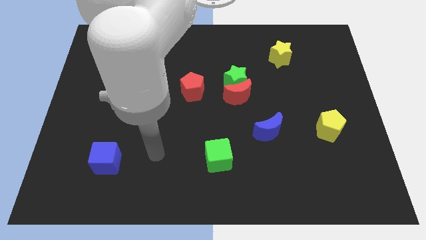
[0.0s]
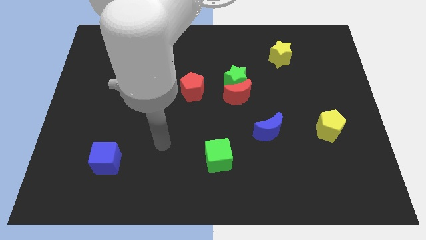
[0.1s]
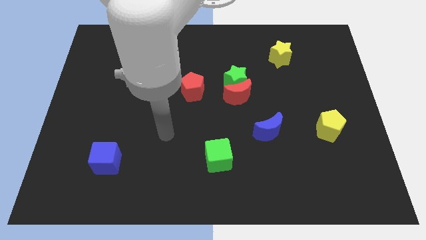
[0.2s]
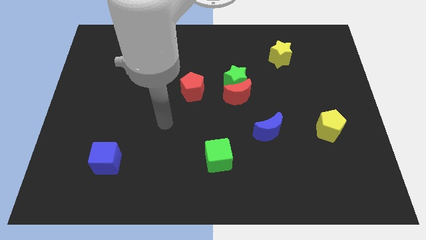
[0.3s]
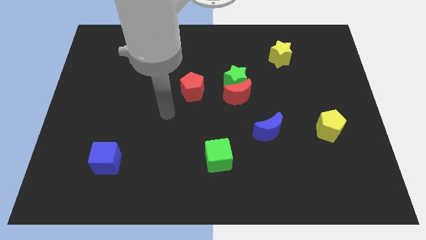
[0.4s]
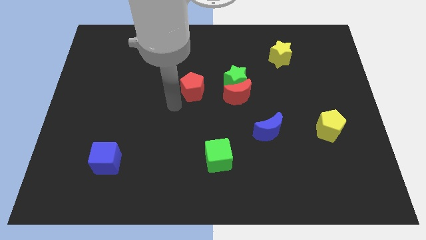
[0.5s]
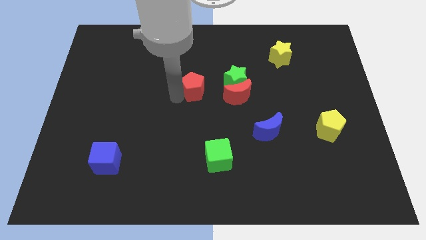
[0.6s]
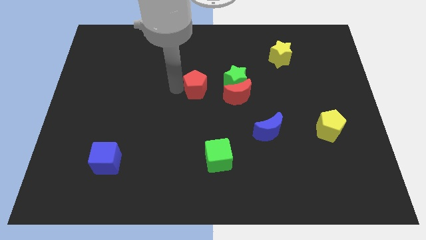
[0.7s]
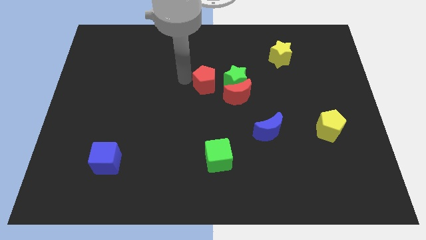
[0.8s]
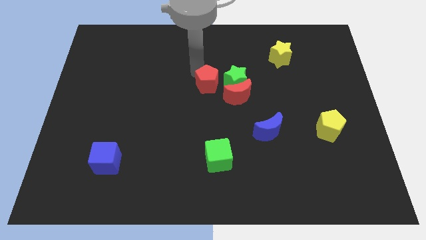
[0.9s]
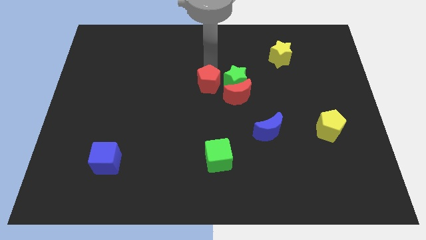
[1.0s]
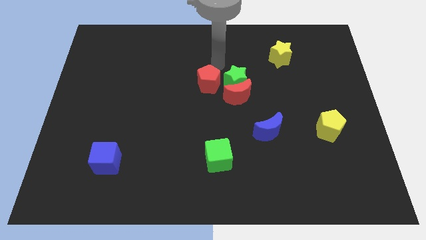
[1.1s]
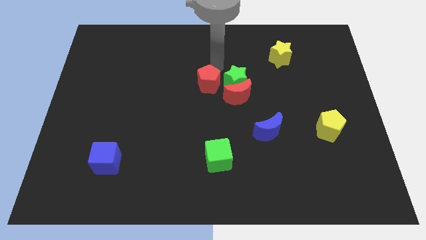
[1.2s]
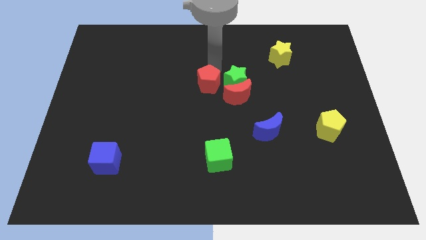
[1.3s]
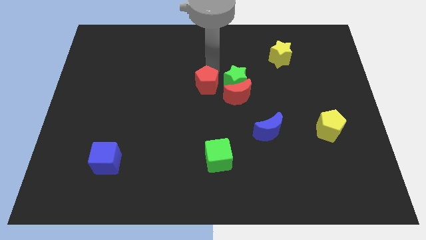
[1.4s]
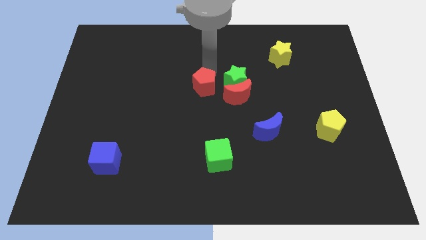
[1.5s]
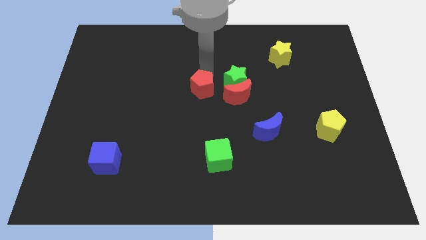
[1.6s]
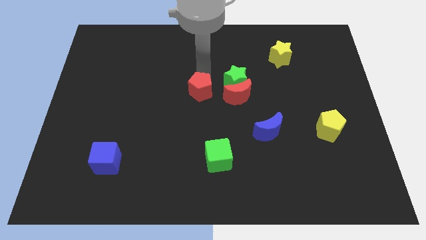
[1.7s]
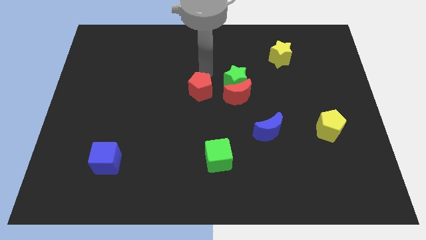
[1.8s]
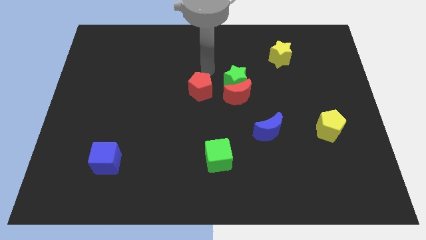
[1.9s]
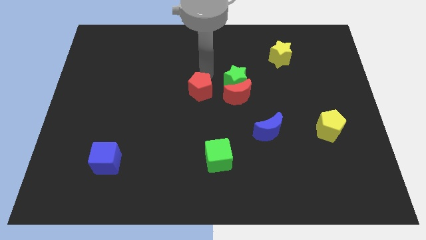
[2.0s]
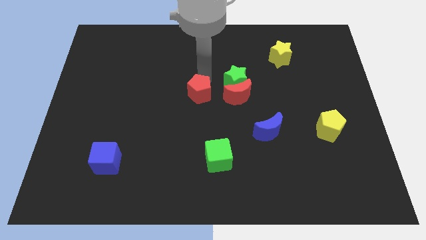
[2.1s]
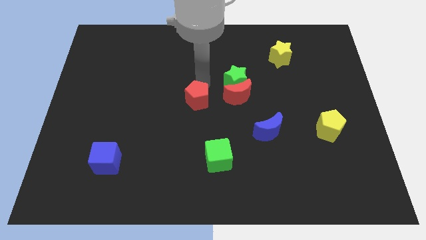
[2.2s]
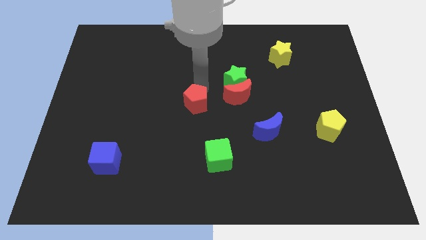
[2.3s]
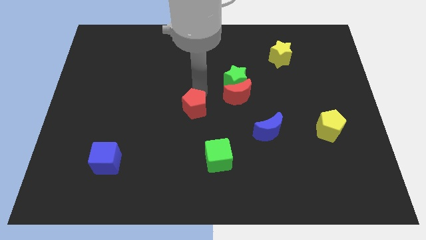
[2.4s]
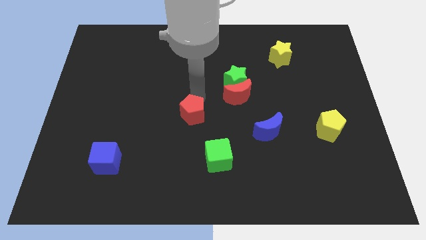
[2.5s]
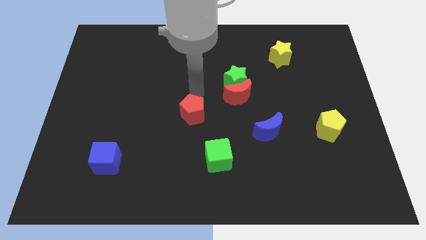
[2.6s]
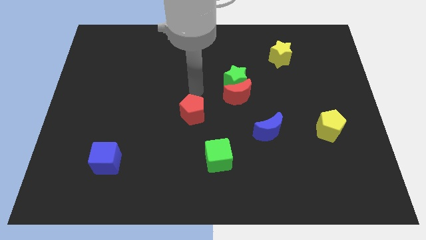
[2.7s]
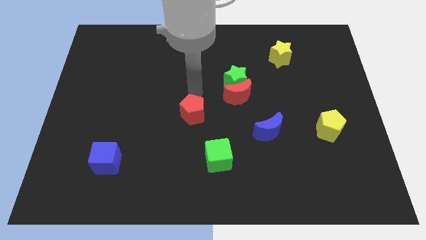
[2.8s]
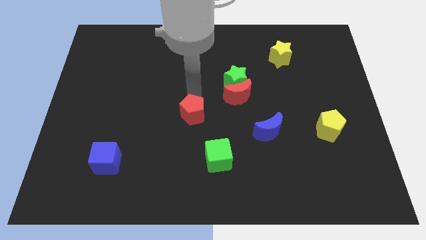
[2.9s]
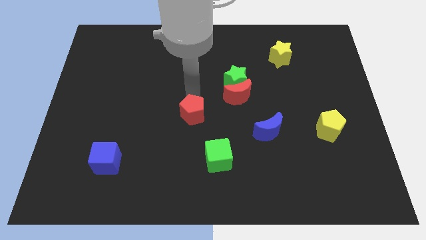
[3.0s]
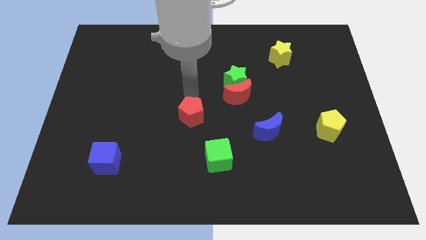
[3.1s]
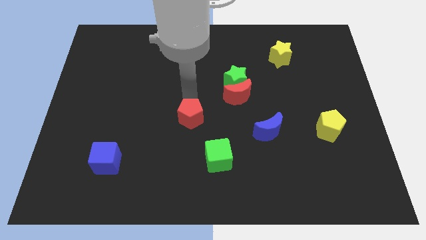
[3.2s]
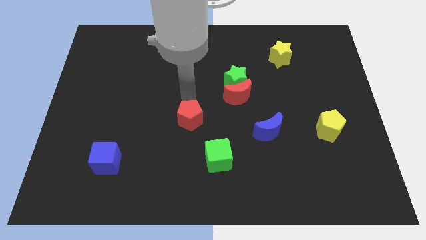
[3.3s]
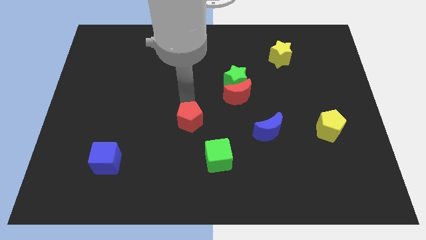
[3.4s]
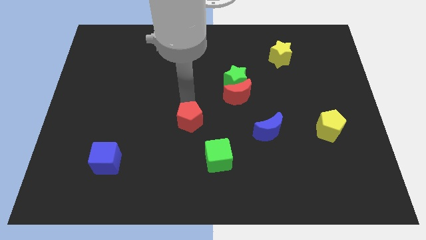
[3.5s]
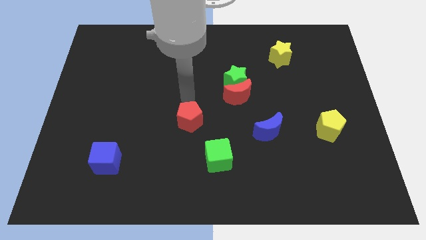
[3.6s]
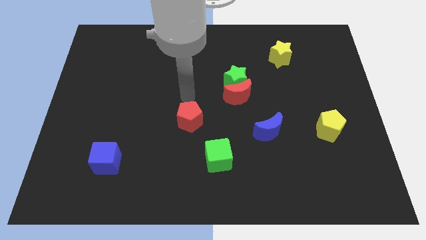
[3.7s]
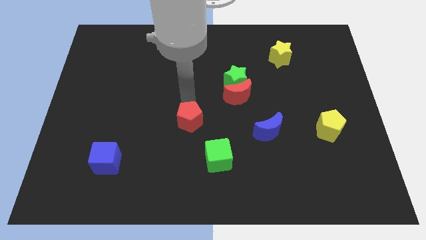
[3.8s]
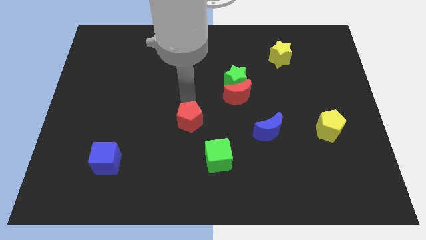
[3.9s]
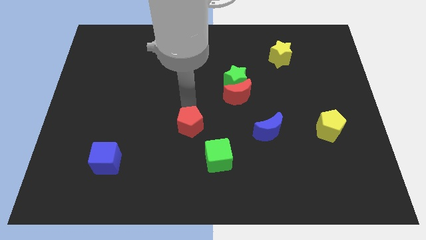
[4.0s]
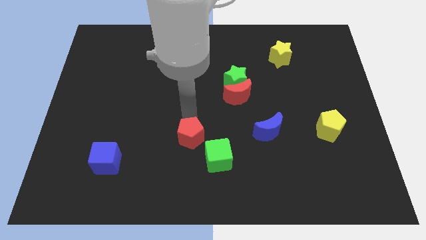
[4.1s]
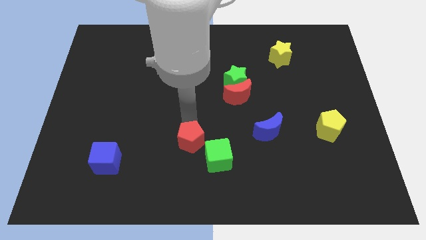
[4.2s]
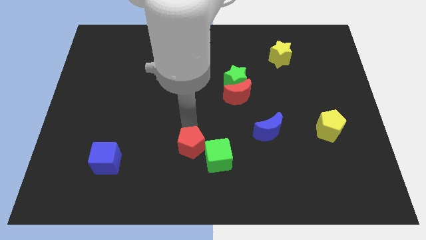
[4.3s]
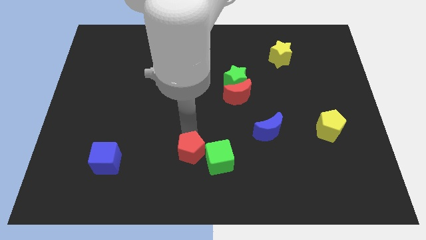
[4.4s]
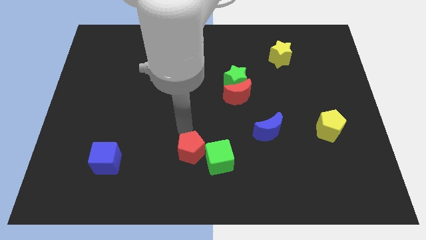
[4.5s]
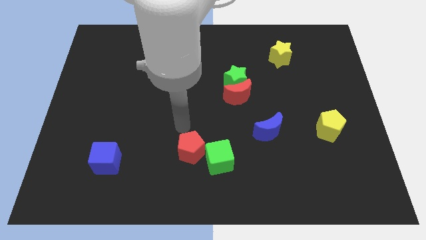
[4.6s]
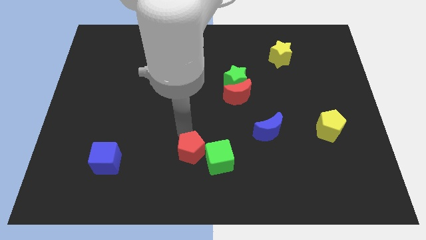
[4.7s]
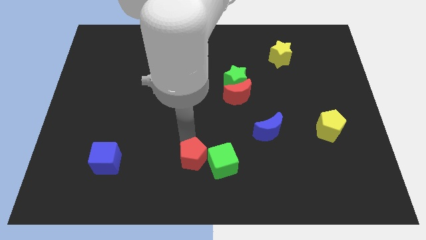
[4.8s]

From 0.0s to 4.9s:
slide the red pentagon to the bottom side

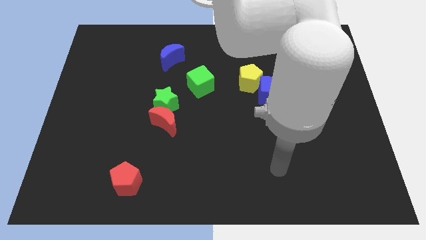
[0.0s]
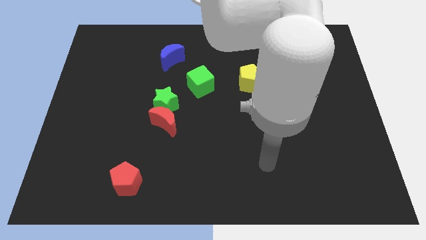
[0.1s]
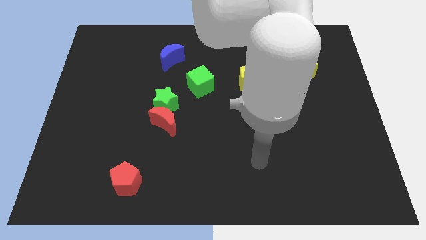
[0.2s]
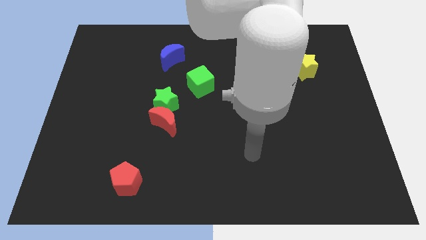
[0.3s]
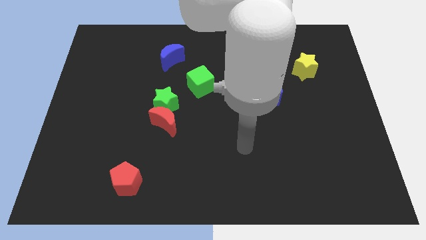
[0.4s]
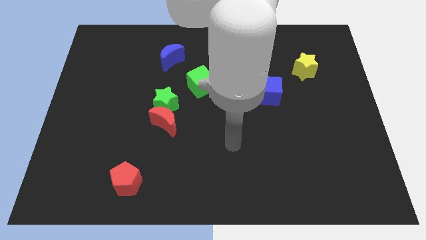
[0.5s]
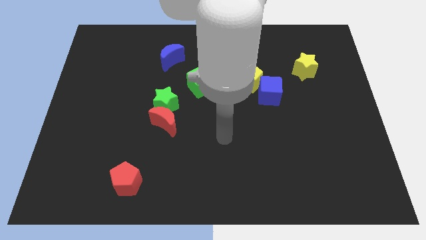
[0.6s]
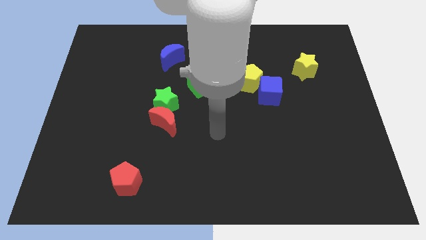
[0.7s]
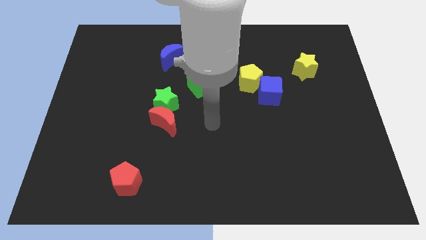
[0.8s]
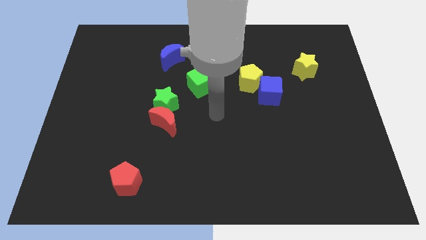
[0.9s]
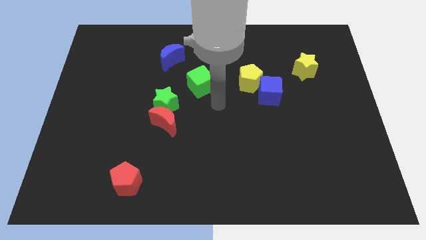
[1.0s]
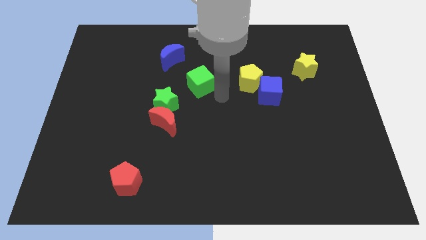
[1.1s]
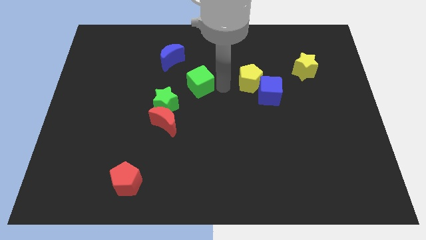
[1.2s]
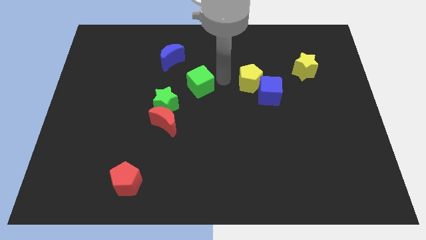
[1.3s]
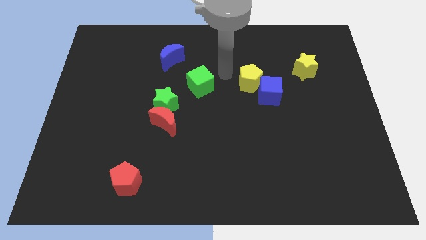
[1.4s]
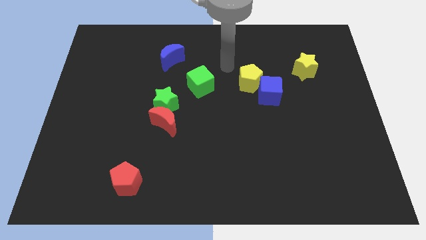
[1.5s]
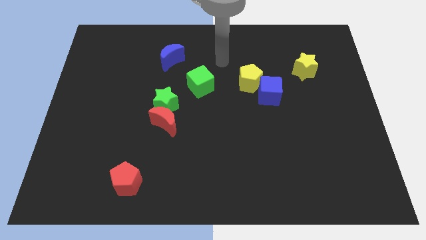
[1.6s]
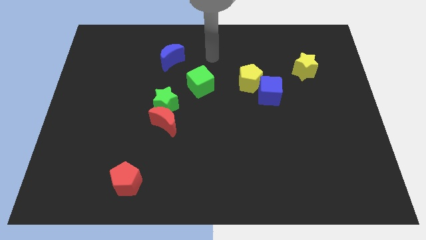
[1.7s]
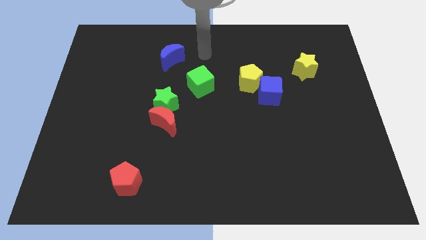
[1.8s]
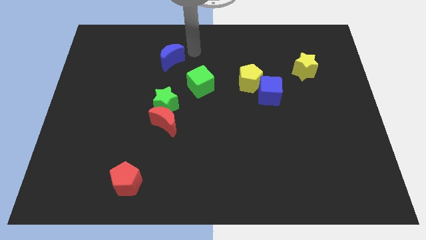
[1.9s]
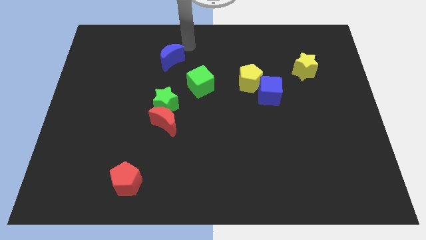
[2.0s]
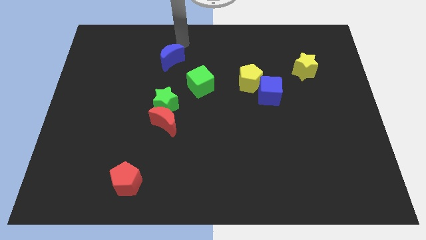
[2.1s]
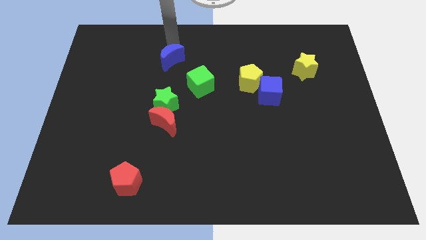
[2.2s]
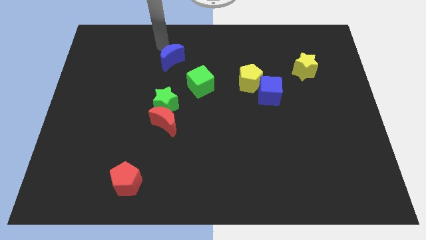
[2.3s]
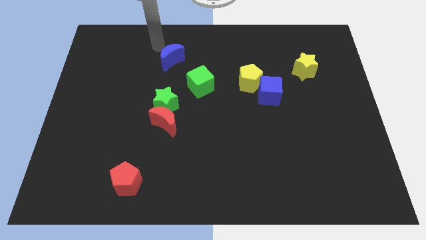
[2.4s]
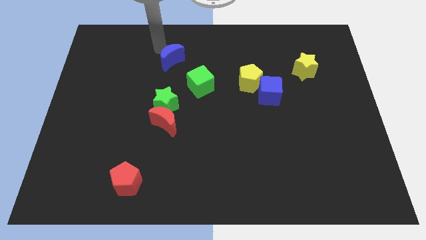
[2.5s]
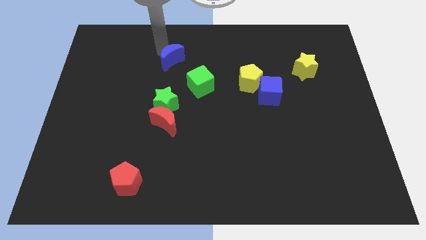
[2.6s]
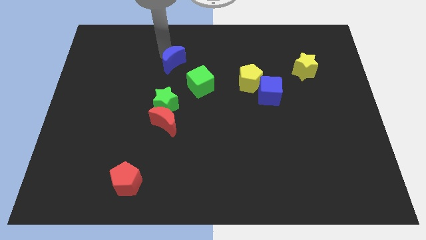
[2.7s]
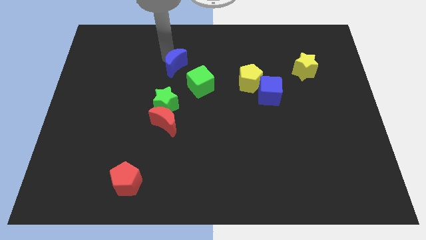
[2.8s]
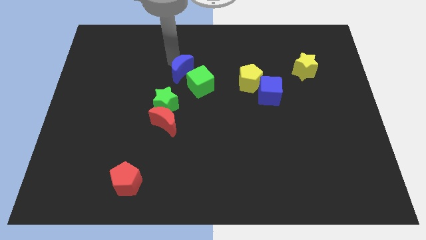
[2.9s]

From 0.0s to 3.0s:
move the blue moon to the center of the board
